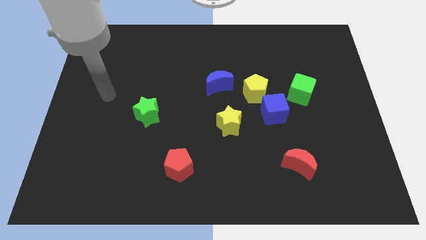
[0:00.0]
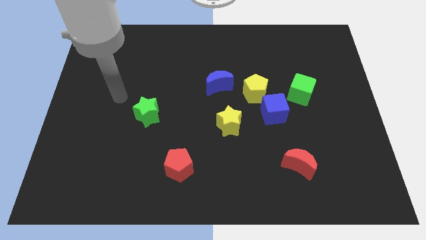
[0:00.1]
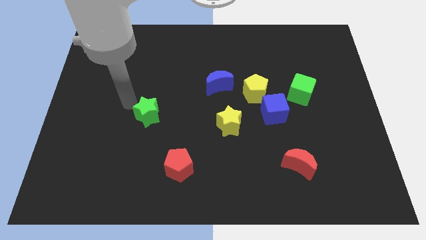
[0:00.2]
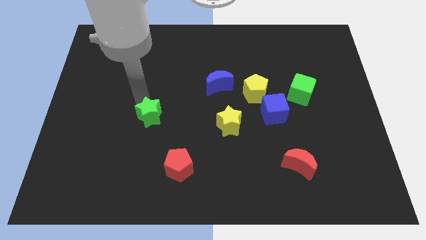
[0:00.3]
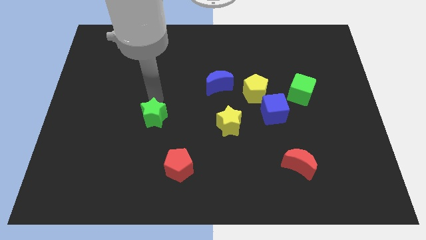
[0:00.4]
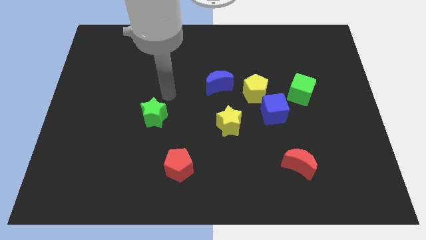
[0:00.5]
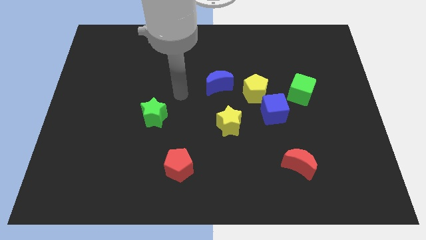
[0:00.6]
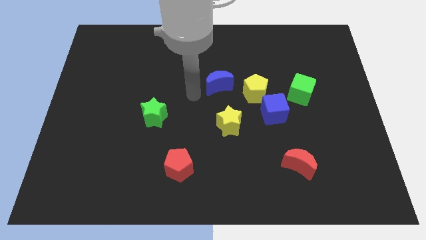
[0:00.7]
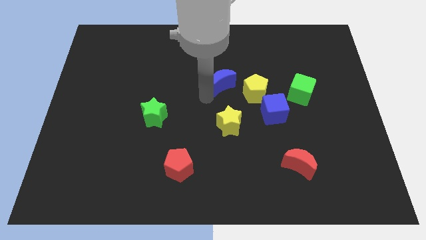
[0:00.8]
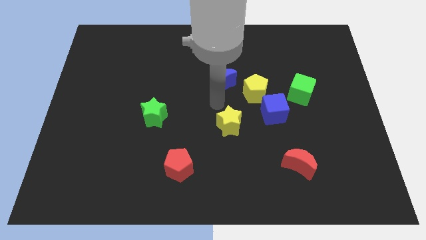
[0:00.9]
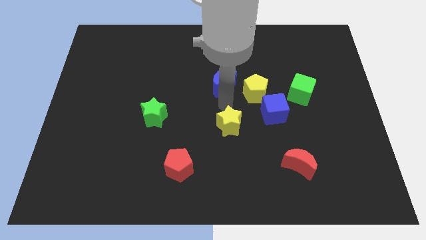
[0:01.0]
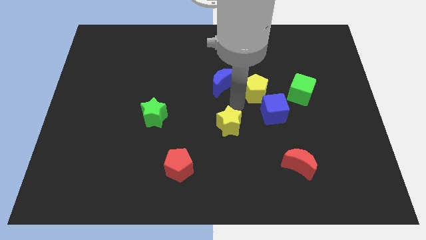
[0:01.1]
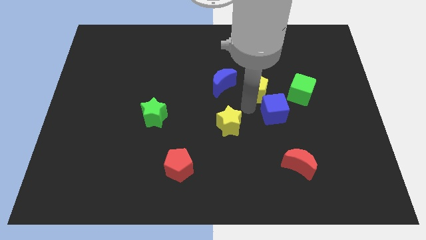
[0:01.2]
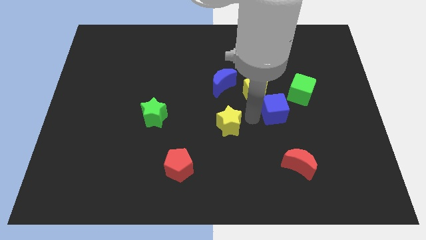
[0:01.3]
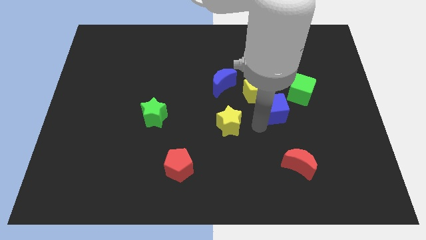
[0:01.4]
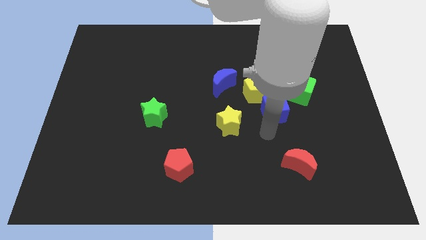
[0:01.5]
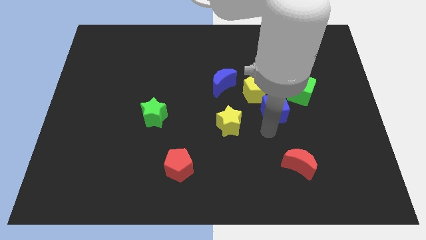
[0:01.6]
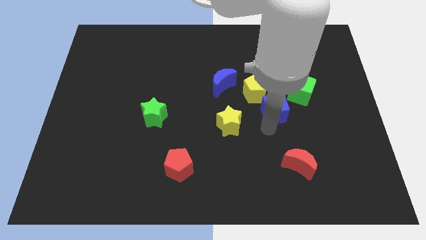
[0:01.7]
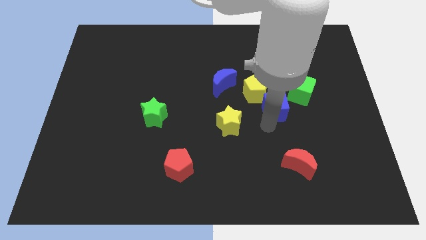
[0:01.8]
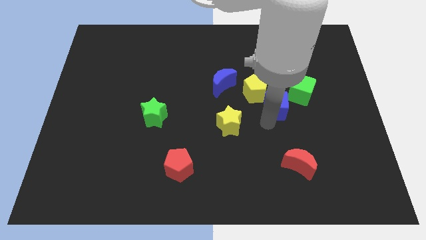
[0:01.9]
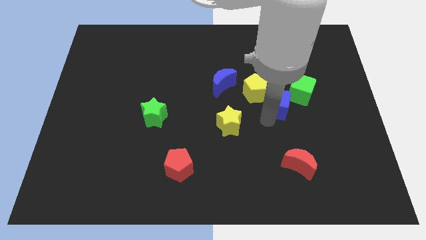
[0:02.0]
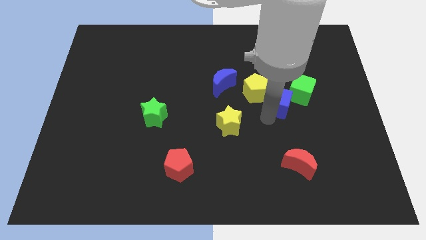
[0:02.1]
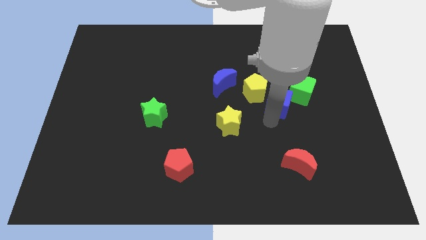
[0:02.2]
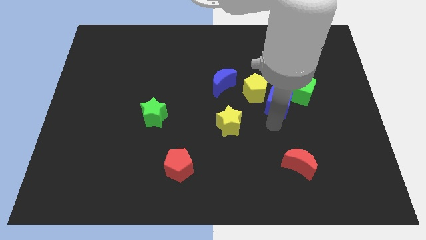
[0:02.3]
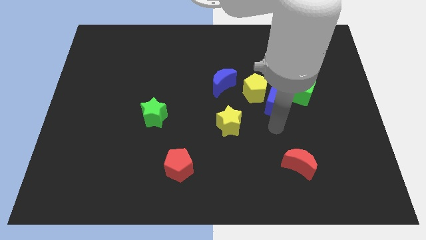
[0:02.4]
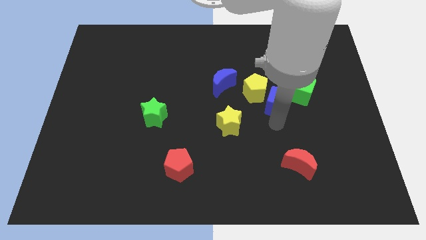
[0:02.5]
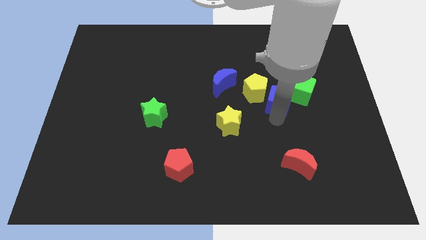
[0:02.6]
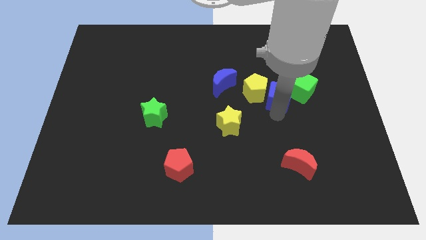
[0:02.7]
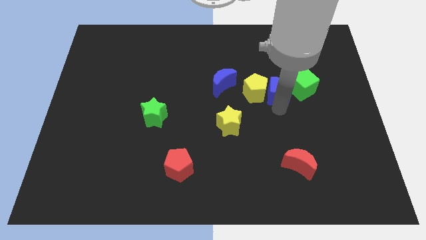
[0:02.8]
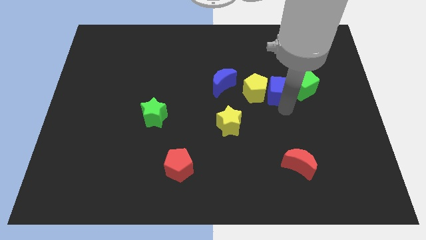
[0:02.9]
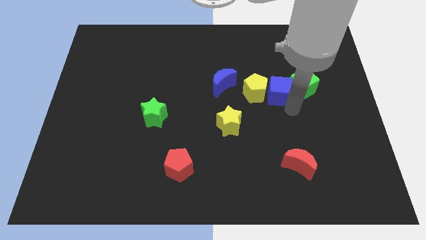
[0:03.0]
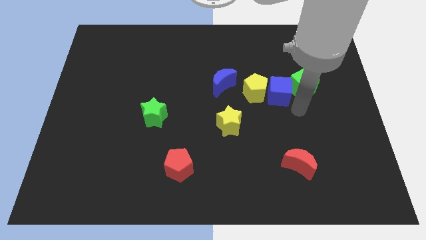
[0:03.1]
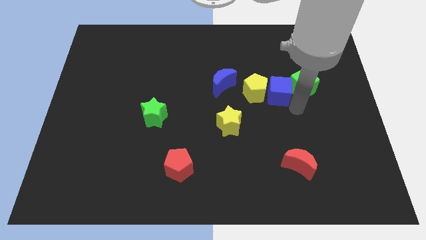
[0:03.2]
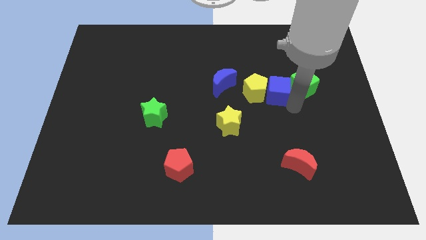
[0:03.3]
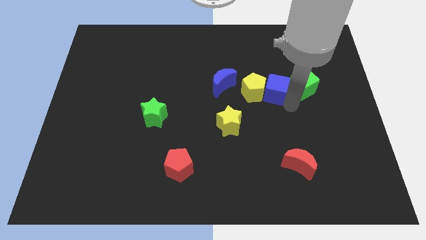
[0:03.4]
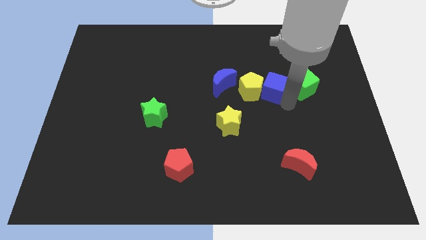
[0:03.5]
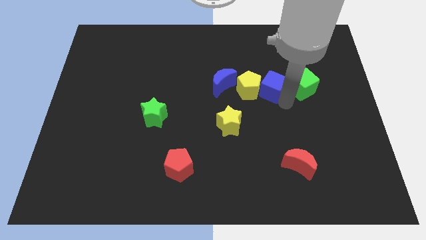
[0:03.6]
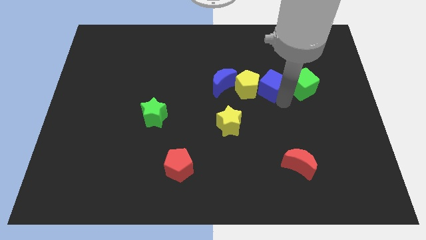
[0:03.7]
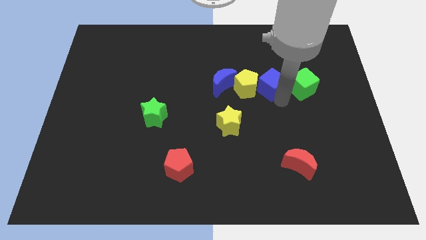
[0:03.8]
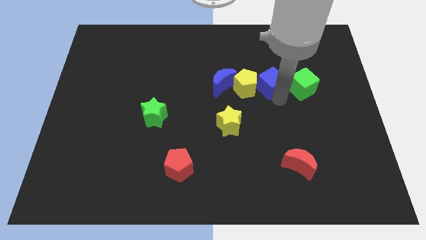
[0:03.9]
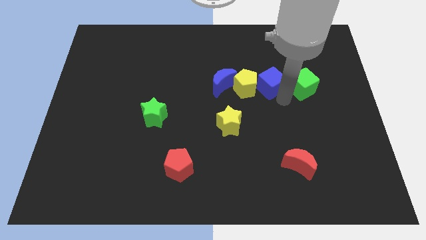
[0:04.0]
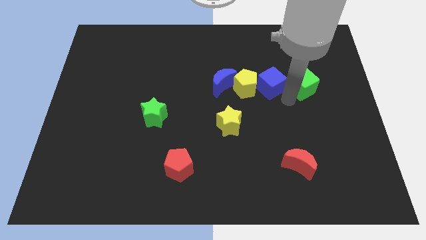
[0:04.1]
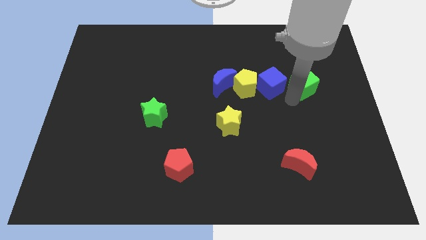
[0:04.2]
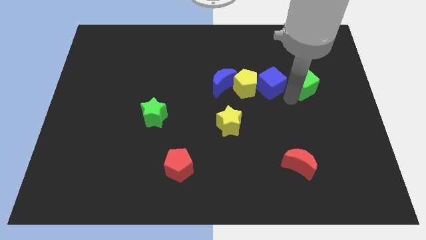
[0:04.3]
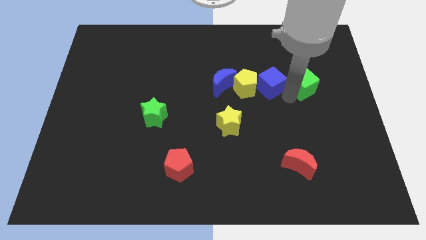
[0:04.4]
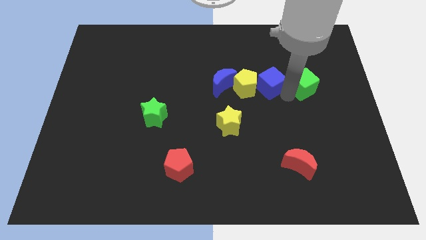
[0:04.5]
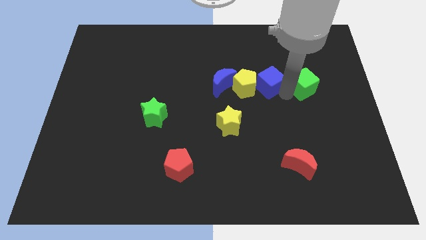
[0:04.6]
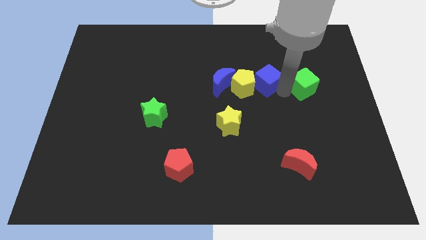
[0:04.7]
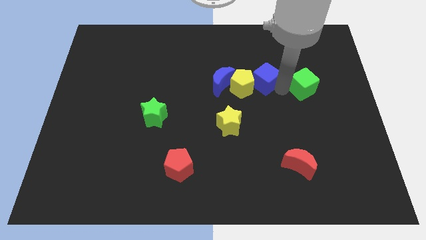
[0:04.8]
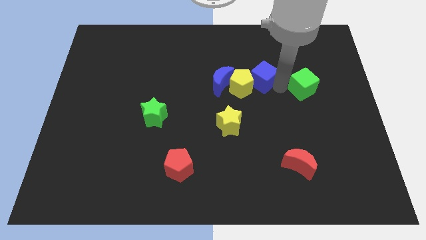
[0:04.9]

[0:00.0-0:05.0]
slightly slide the blue cube up and to the left diagonally

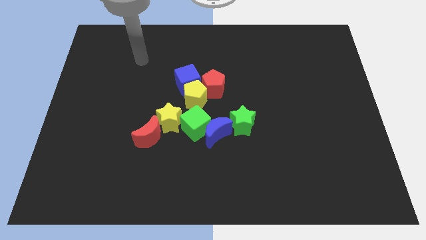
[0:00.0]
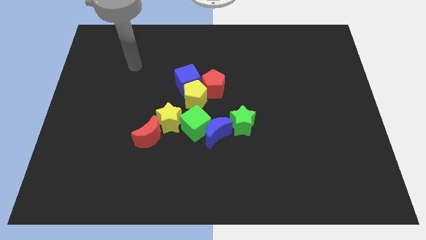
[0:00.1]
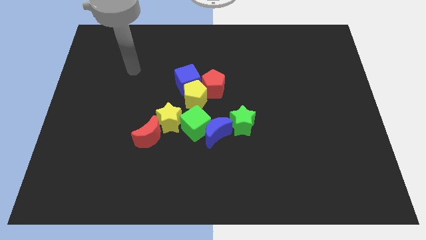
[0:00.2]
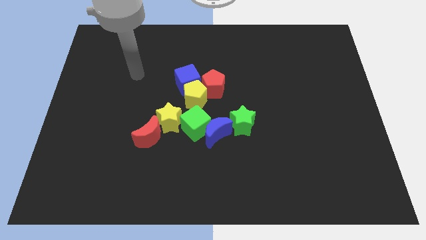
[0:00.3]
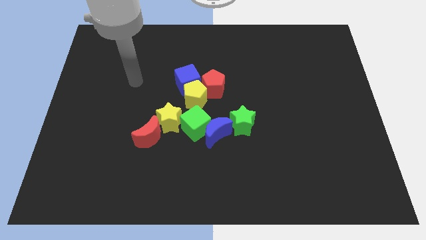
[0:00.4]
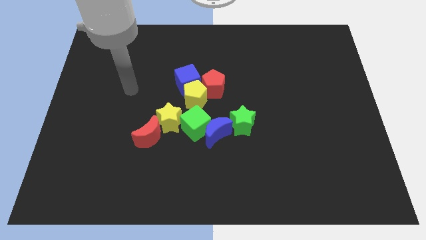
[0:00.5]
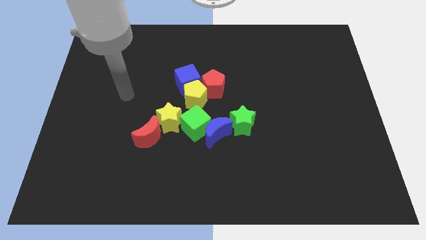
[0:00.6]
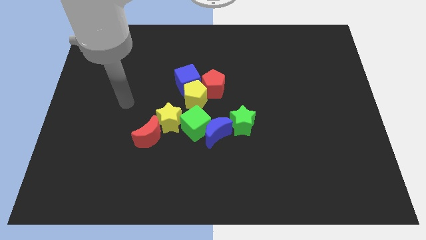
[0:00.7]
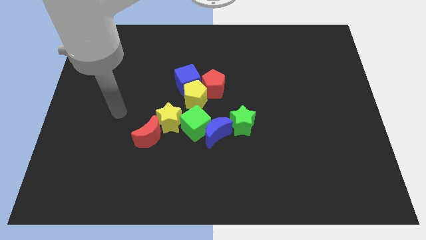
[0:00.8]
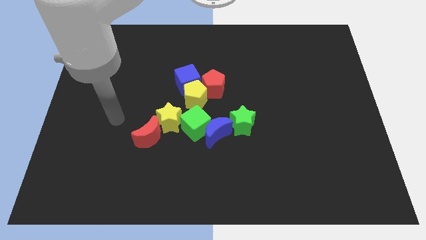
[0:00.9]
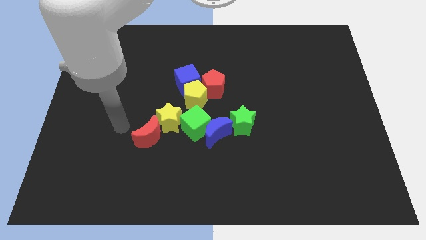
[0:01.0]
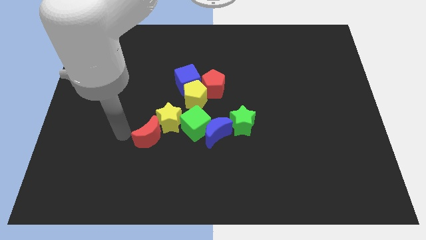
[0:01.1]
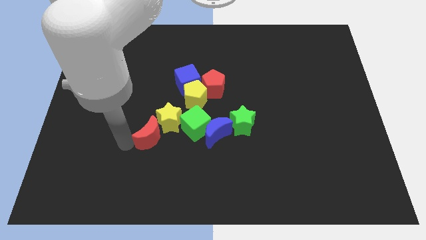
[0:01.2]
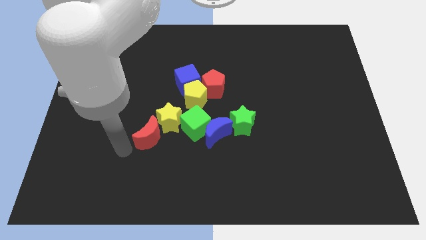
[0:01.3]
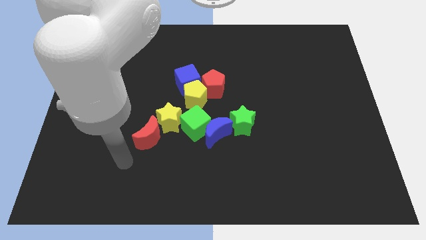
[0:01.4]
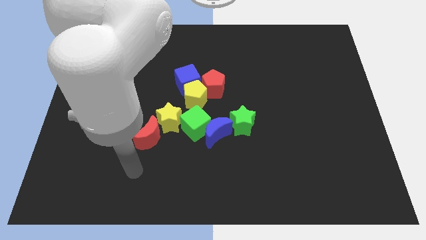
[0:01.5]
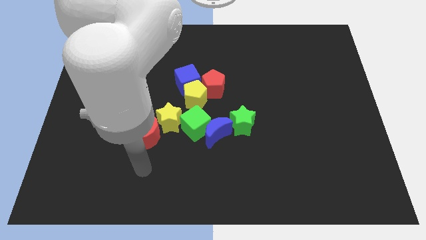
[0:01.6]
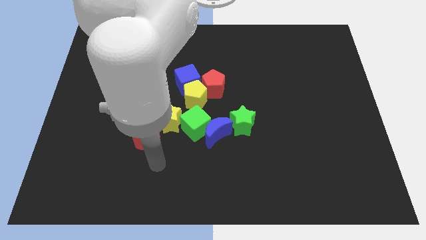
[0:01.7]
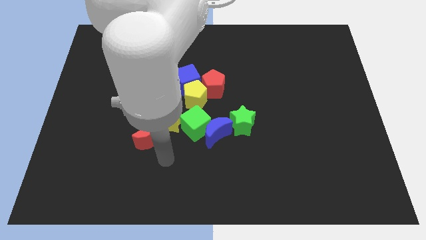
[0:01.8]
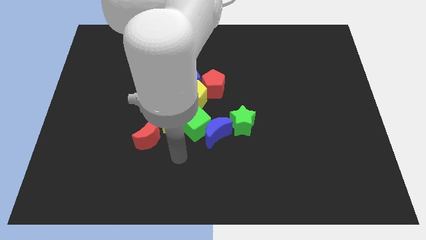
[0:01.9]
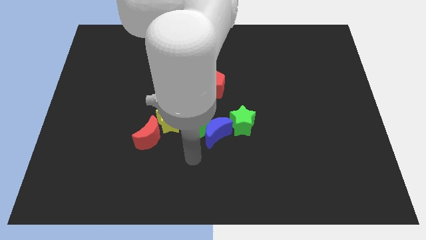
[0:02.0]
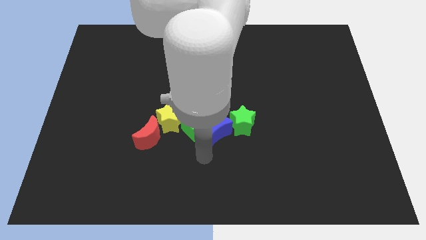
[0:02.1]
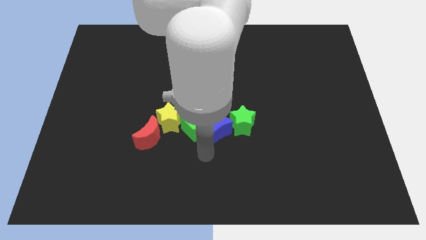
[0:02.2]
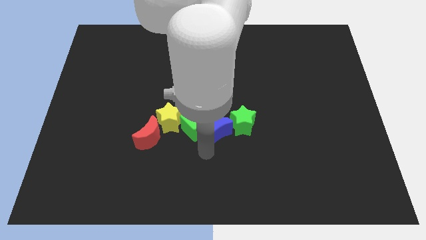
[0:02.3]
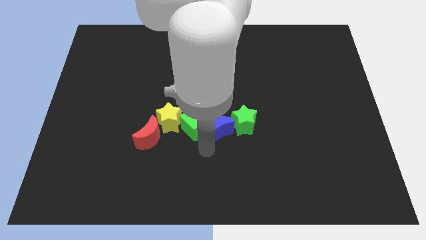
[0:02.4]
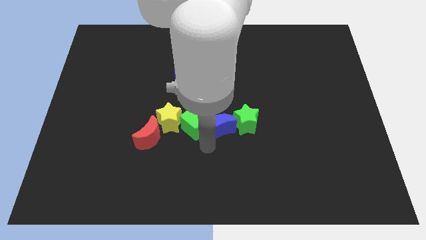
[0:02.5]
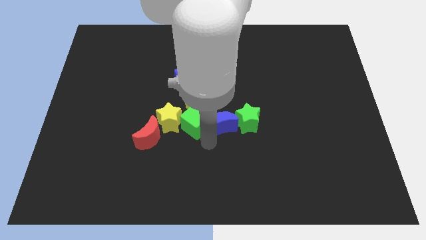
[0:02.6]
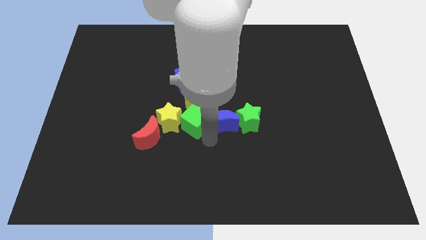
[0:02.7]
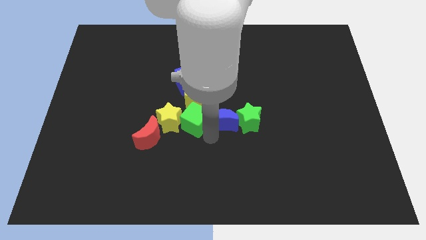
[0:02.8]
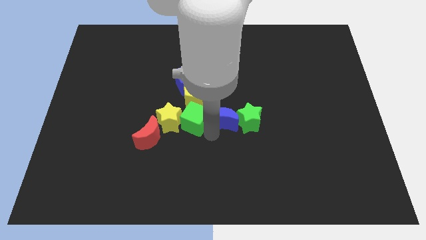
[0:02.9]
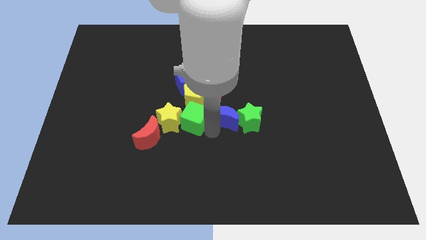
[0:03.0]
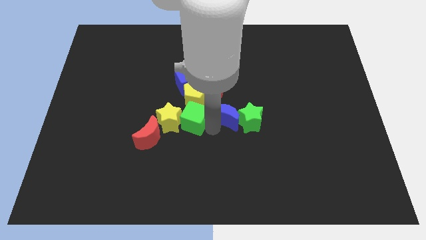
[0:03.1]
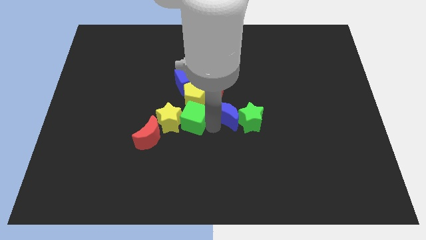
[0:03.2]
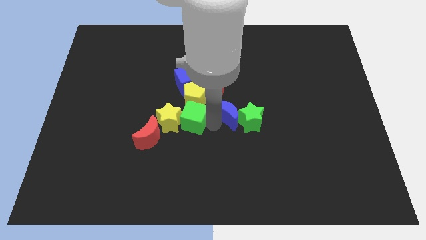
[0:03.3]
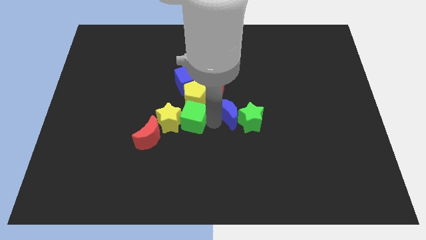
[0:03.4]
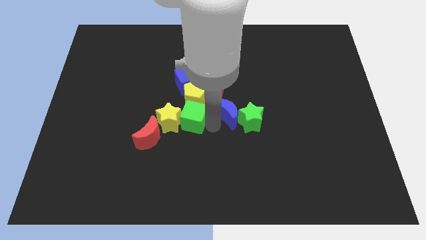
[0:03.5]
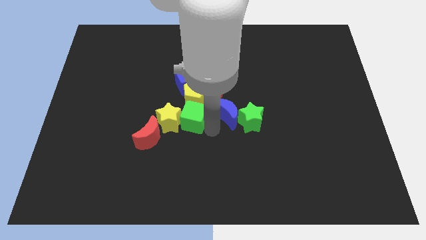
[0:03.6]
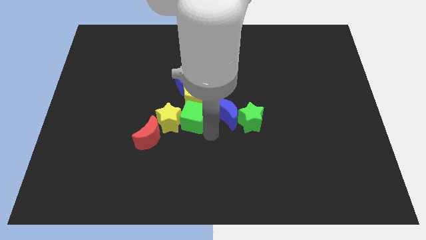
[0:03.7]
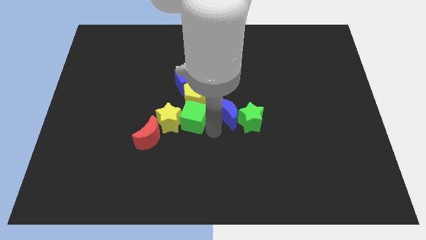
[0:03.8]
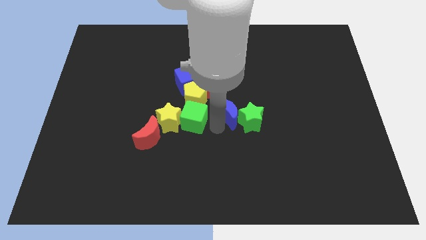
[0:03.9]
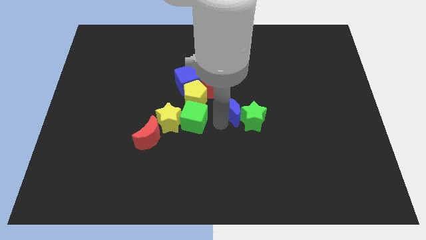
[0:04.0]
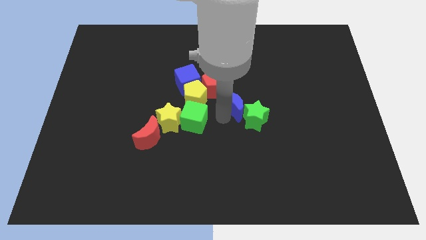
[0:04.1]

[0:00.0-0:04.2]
slightly push the blue moon up and to the right diagonally
